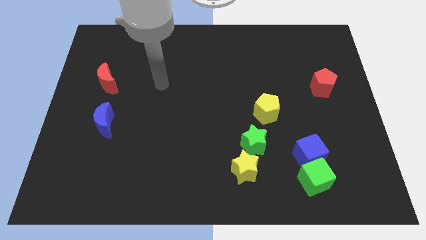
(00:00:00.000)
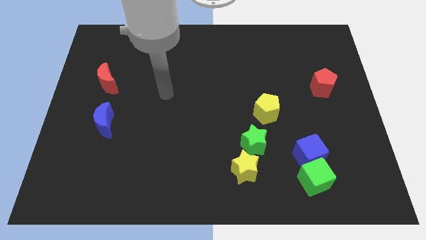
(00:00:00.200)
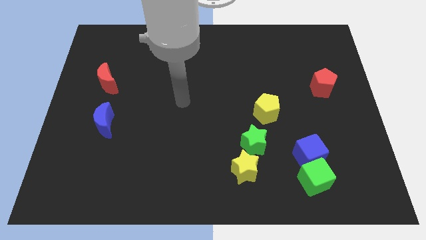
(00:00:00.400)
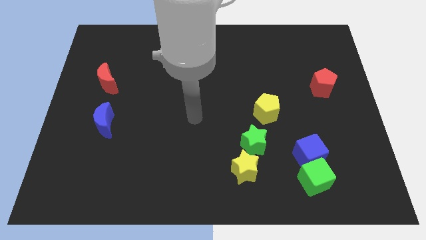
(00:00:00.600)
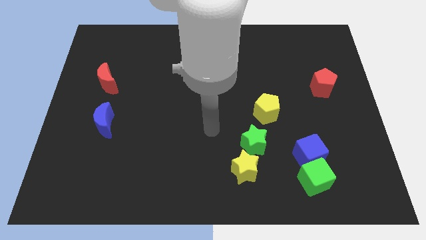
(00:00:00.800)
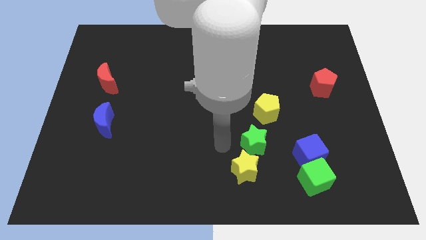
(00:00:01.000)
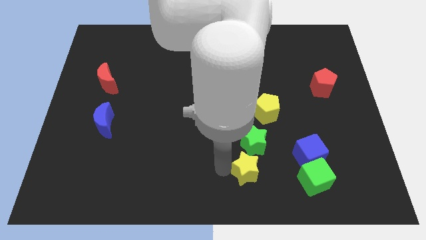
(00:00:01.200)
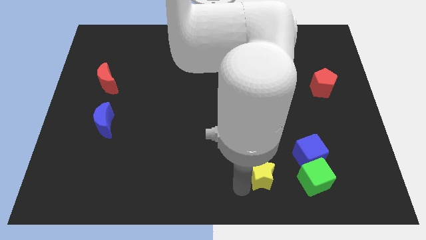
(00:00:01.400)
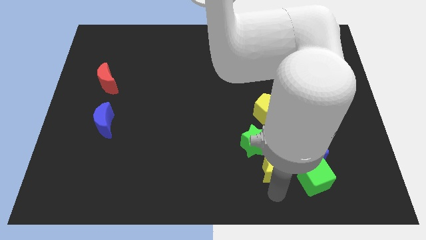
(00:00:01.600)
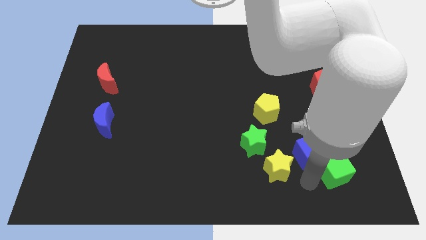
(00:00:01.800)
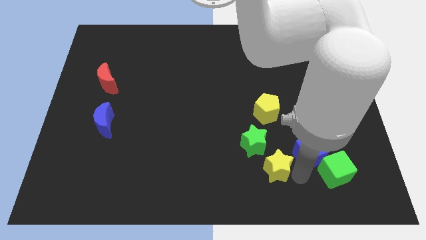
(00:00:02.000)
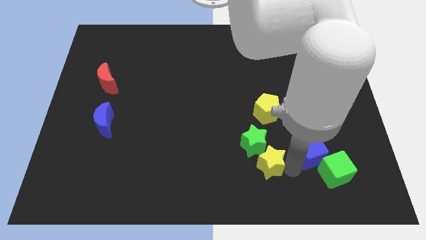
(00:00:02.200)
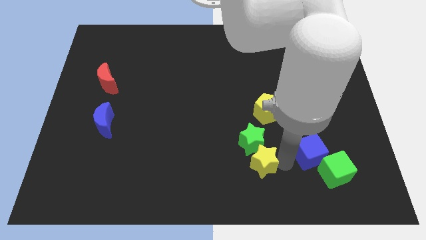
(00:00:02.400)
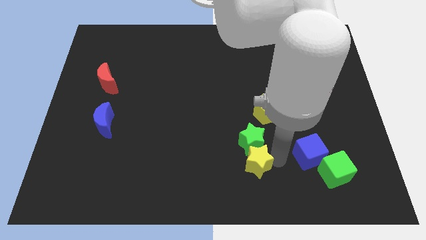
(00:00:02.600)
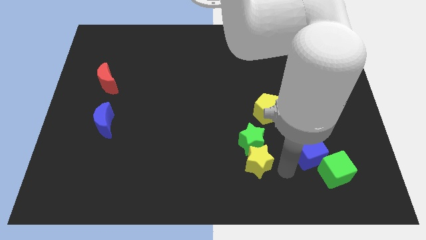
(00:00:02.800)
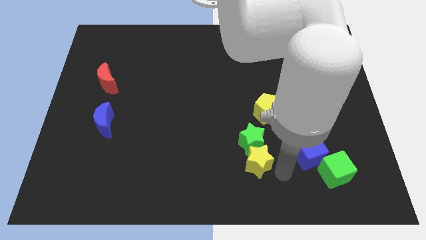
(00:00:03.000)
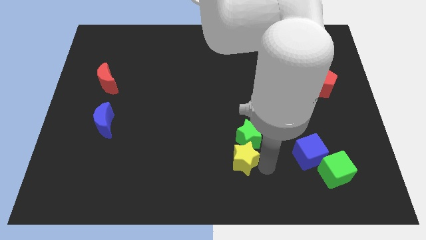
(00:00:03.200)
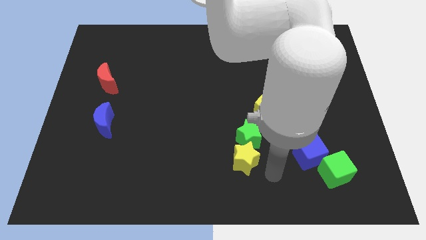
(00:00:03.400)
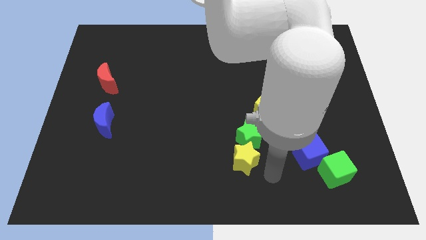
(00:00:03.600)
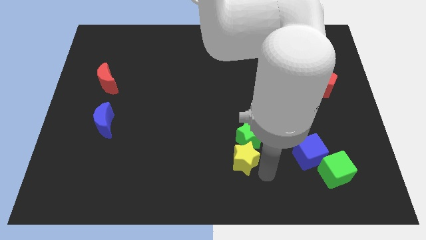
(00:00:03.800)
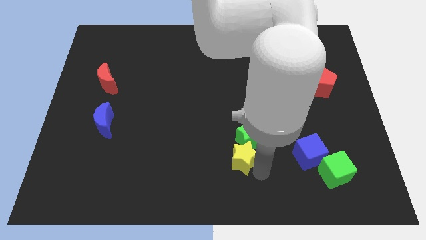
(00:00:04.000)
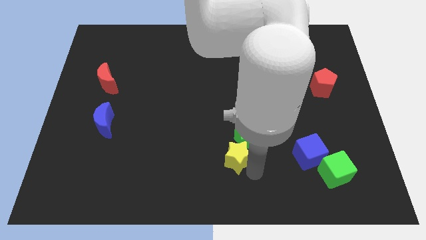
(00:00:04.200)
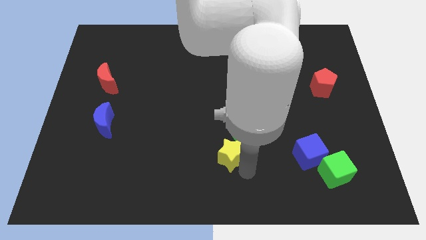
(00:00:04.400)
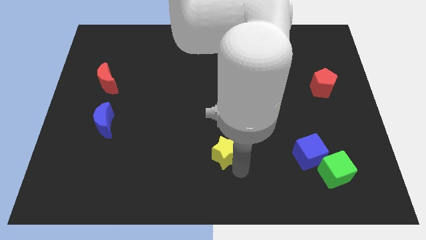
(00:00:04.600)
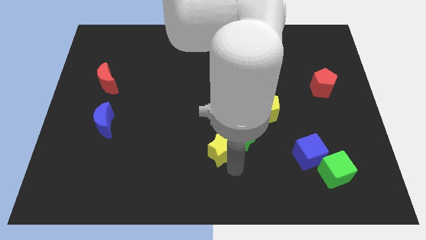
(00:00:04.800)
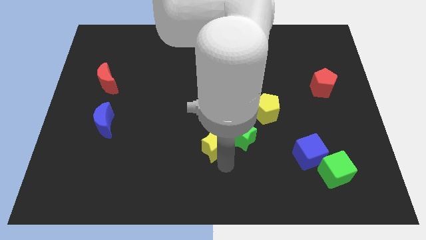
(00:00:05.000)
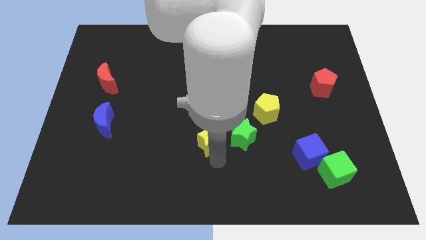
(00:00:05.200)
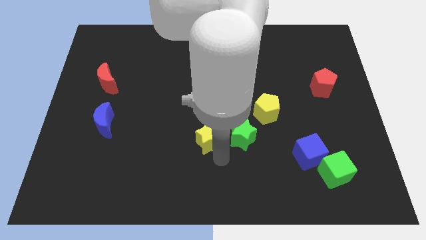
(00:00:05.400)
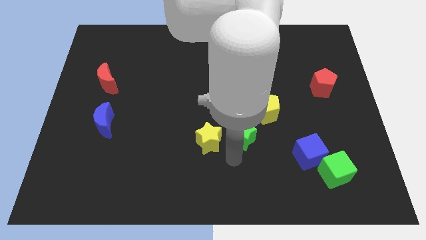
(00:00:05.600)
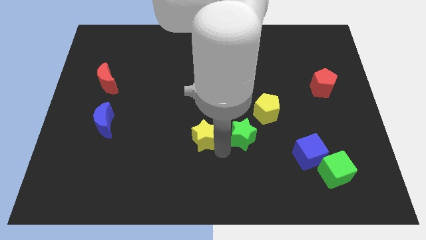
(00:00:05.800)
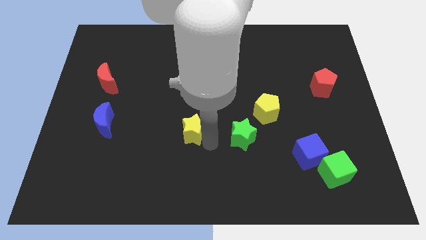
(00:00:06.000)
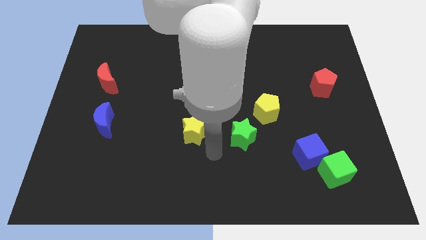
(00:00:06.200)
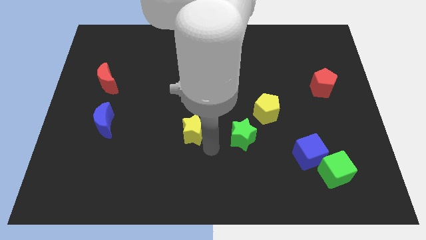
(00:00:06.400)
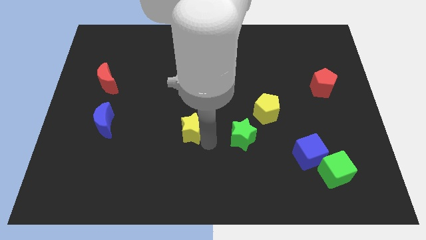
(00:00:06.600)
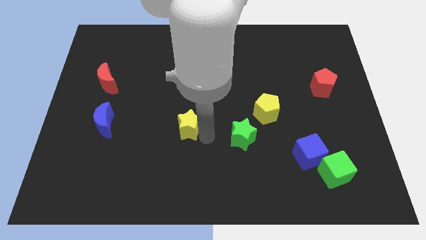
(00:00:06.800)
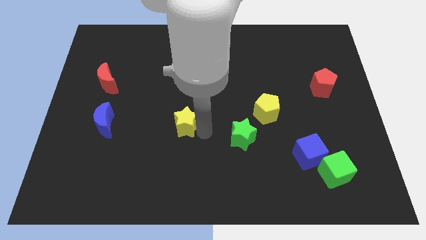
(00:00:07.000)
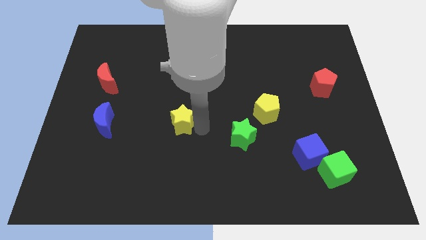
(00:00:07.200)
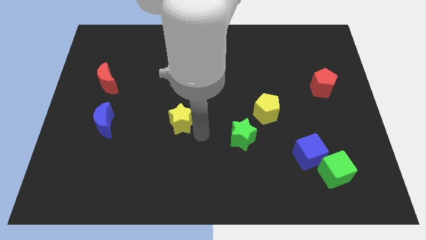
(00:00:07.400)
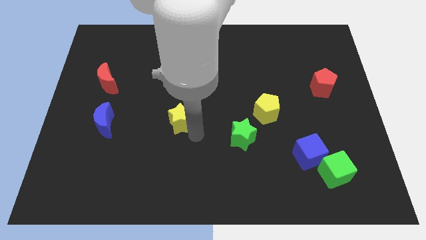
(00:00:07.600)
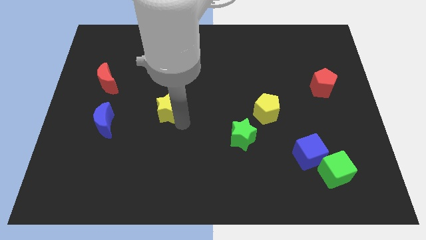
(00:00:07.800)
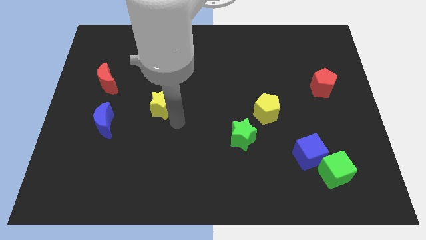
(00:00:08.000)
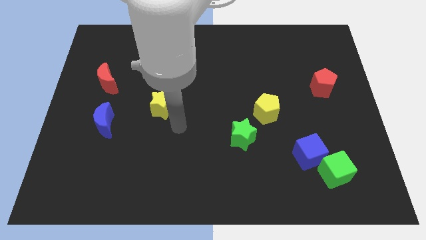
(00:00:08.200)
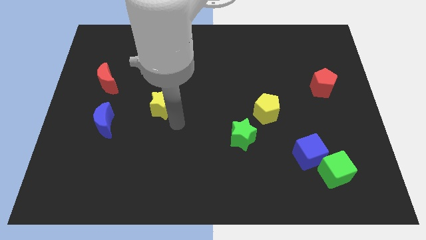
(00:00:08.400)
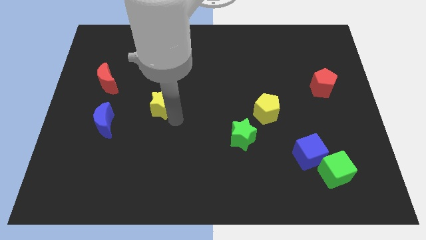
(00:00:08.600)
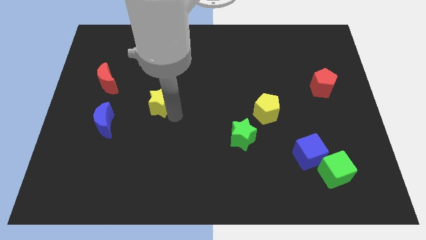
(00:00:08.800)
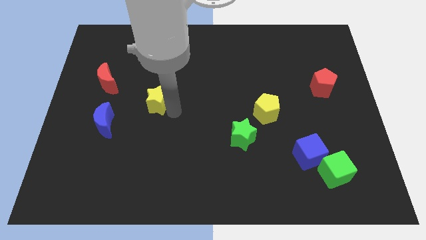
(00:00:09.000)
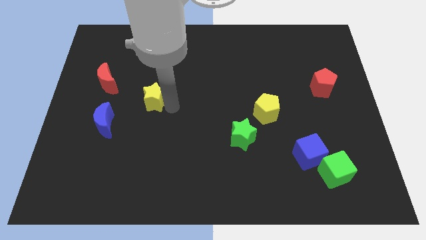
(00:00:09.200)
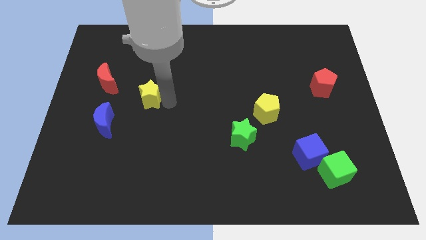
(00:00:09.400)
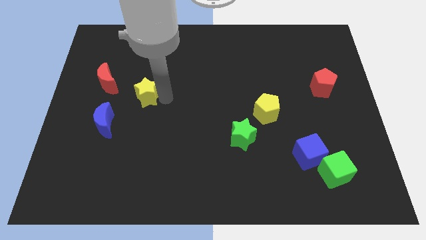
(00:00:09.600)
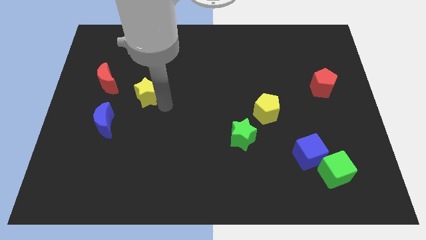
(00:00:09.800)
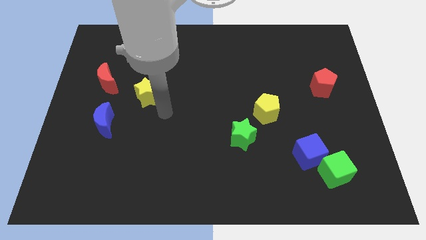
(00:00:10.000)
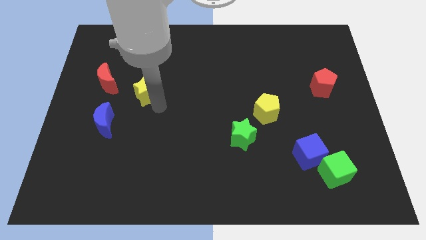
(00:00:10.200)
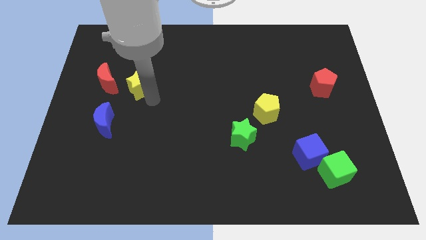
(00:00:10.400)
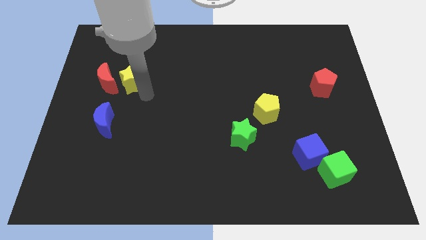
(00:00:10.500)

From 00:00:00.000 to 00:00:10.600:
push the yellow star to the top right side of the red moon

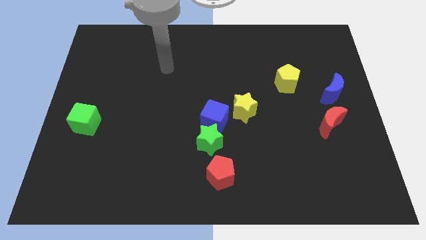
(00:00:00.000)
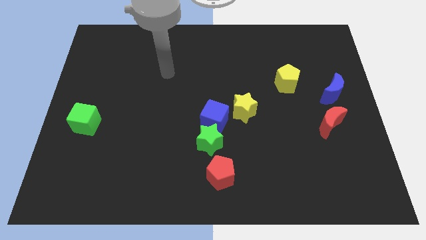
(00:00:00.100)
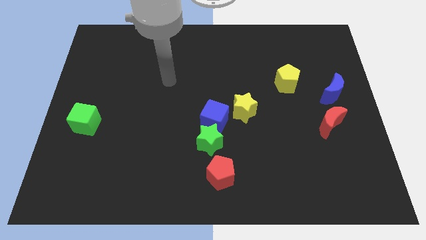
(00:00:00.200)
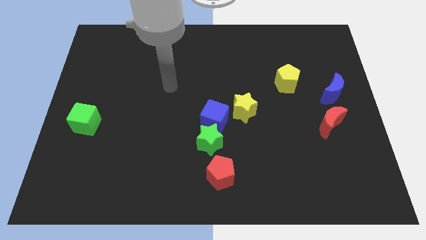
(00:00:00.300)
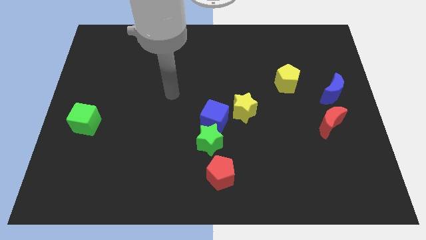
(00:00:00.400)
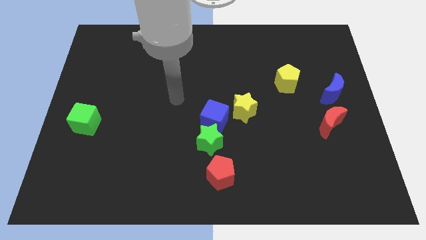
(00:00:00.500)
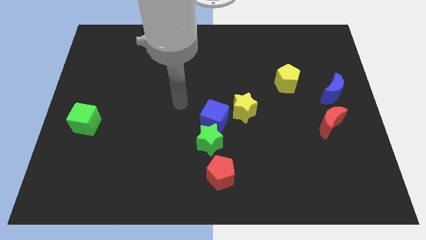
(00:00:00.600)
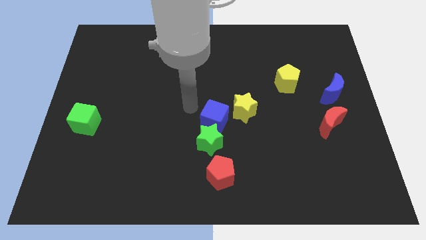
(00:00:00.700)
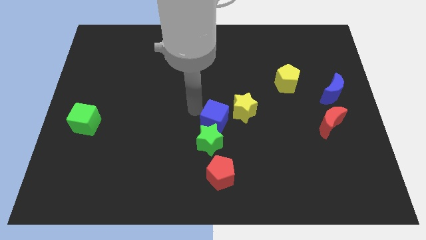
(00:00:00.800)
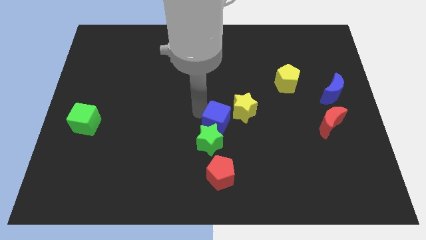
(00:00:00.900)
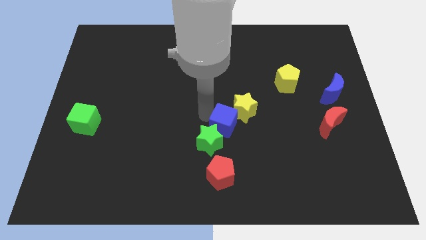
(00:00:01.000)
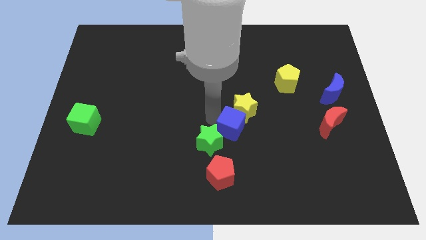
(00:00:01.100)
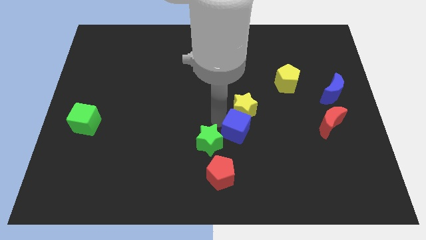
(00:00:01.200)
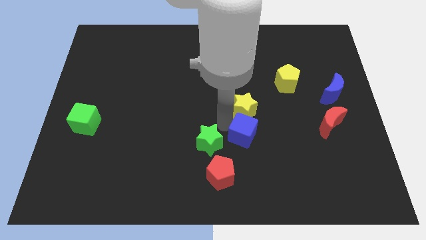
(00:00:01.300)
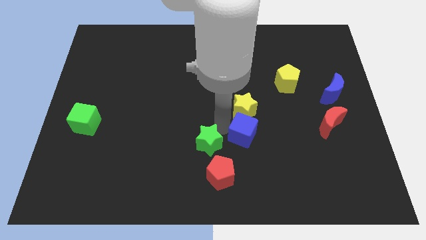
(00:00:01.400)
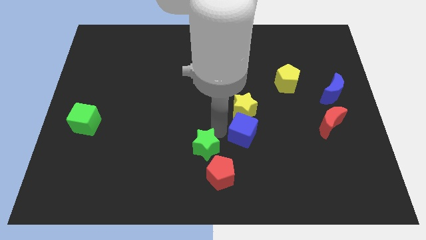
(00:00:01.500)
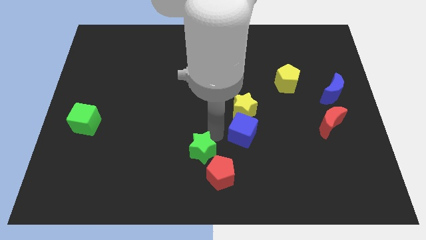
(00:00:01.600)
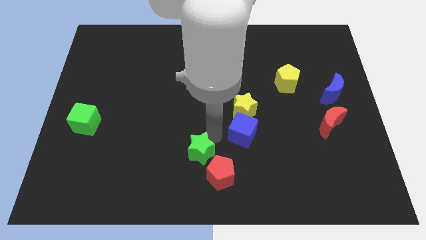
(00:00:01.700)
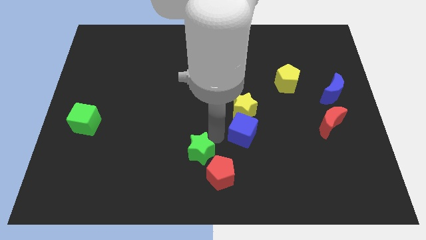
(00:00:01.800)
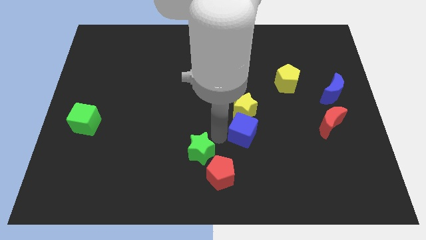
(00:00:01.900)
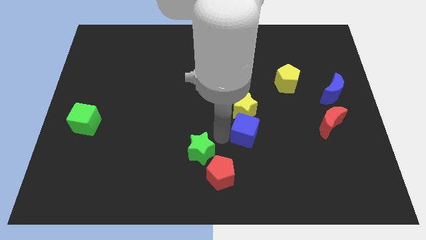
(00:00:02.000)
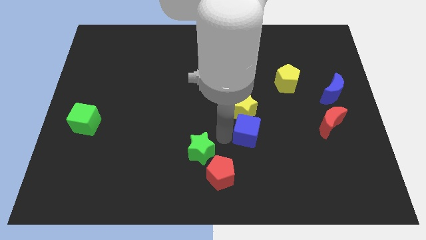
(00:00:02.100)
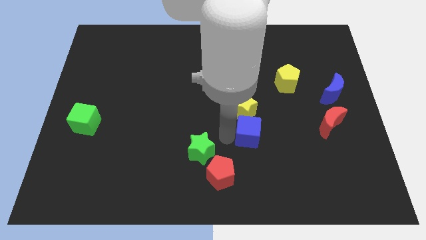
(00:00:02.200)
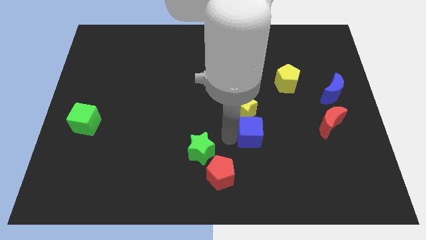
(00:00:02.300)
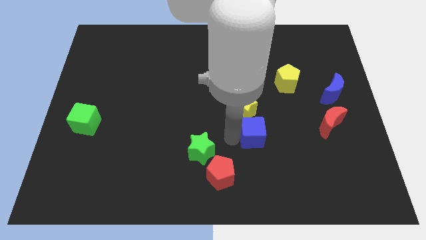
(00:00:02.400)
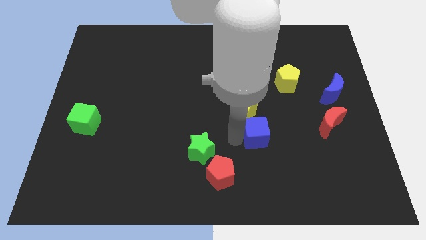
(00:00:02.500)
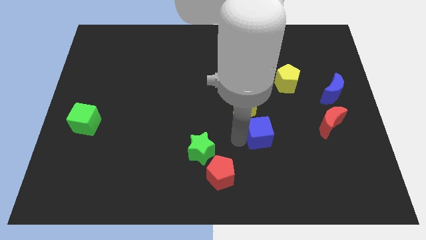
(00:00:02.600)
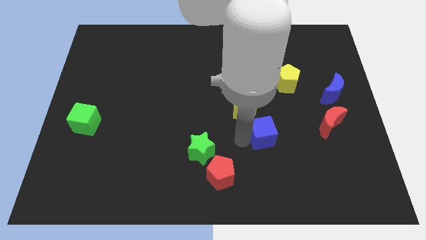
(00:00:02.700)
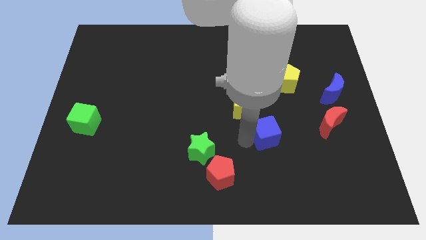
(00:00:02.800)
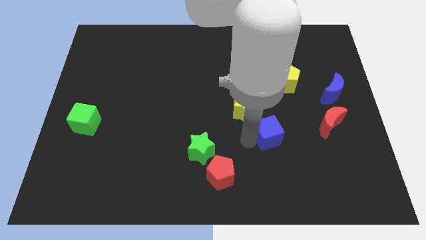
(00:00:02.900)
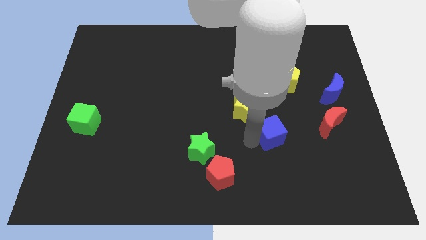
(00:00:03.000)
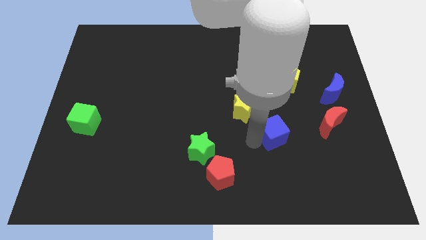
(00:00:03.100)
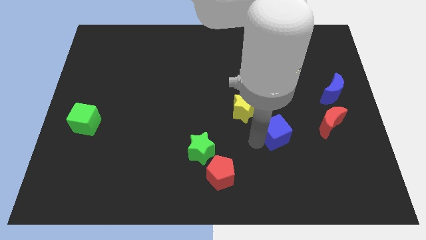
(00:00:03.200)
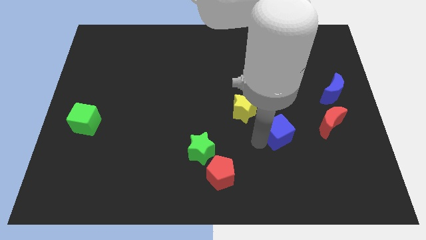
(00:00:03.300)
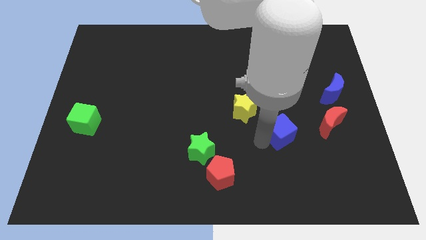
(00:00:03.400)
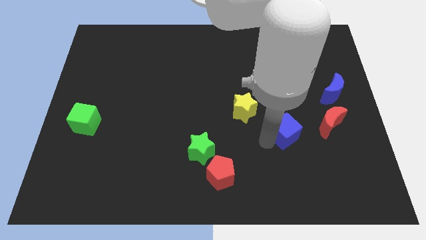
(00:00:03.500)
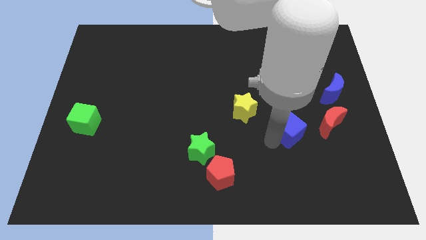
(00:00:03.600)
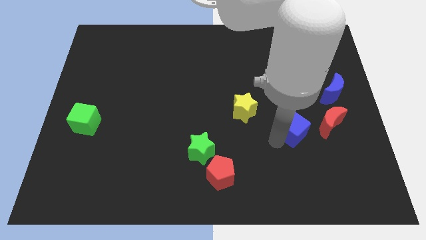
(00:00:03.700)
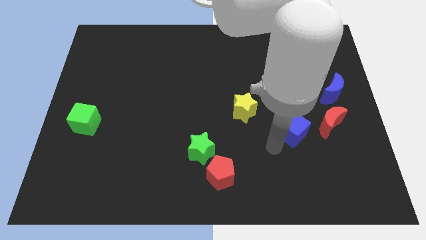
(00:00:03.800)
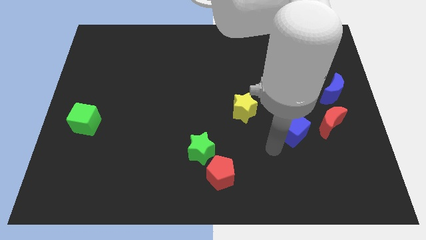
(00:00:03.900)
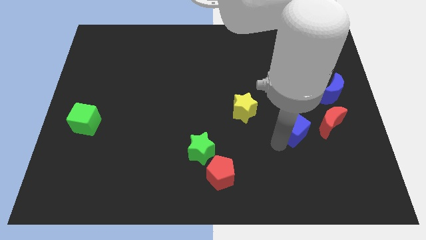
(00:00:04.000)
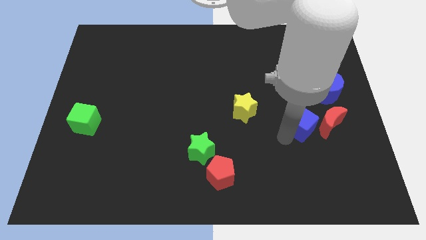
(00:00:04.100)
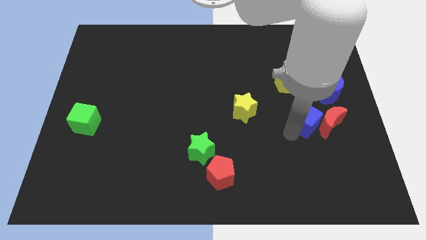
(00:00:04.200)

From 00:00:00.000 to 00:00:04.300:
push the blue cube diagonally down and to the left of the blue moon
